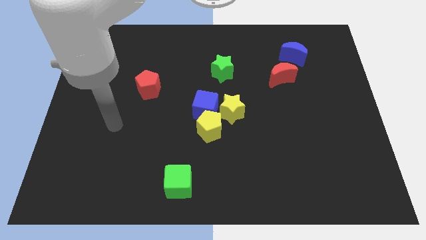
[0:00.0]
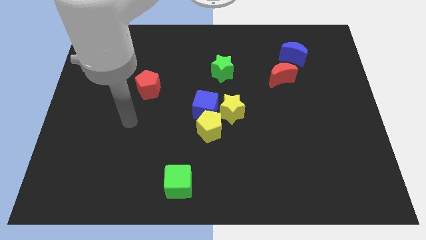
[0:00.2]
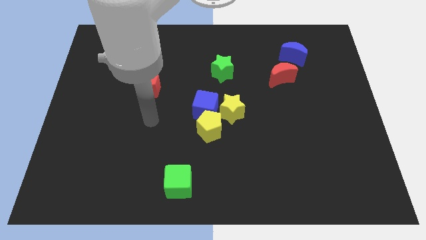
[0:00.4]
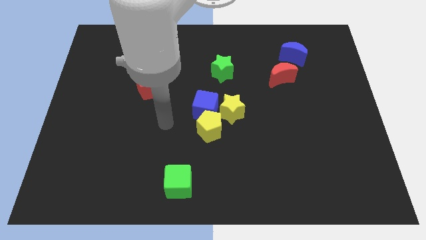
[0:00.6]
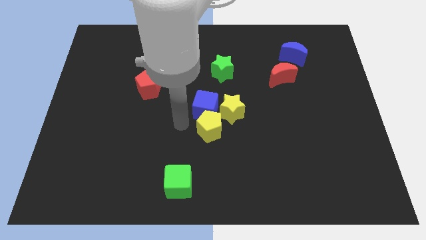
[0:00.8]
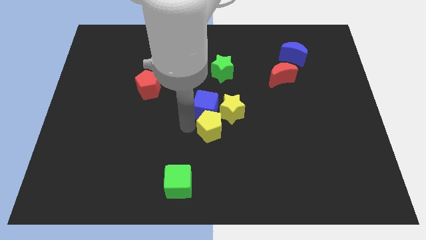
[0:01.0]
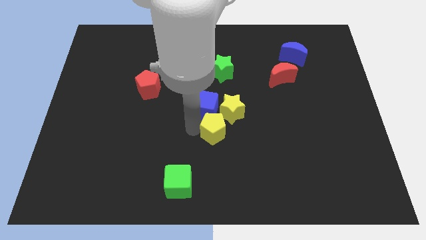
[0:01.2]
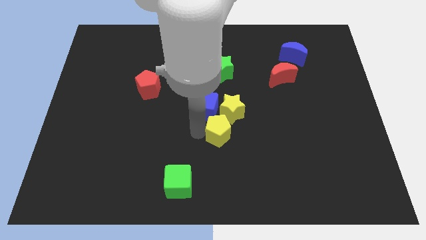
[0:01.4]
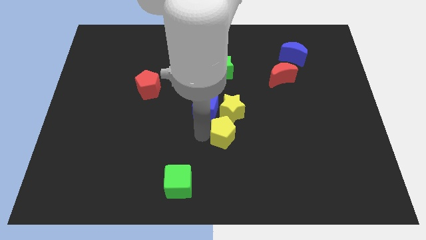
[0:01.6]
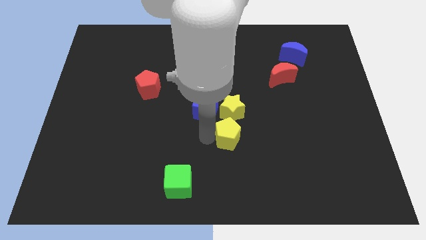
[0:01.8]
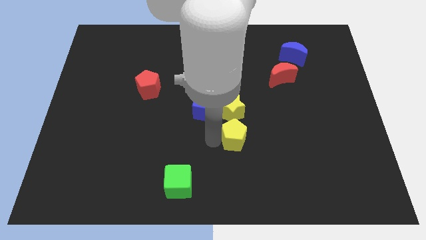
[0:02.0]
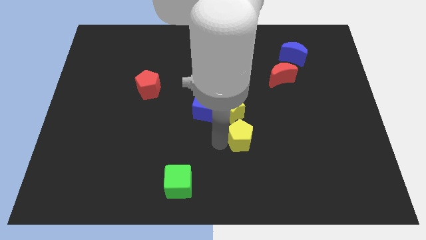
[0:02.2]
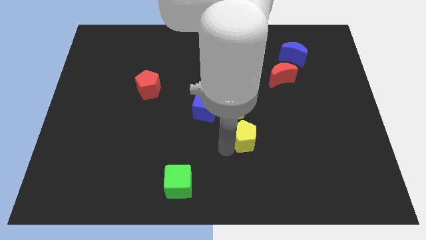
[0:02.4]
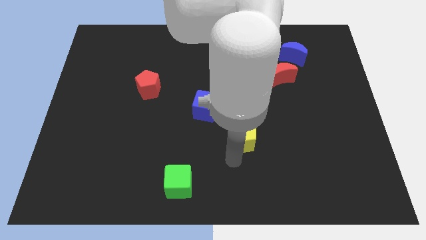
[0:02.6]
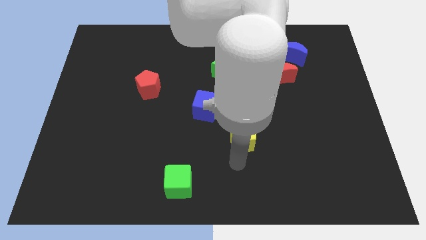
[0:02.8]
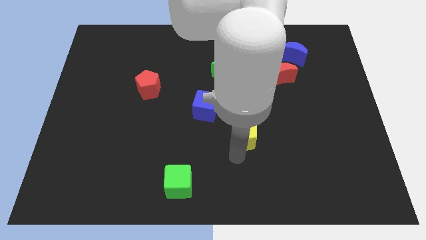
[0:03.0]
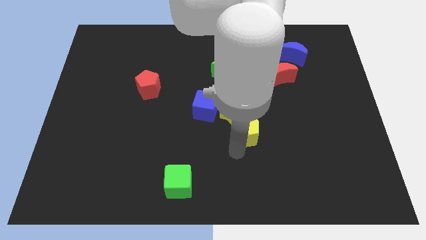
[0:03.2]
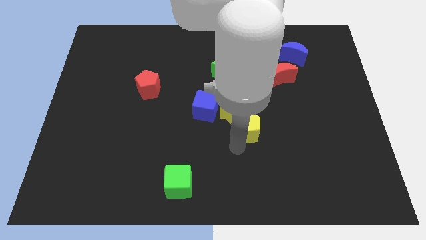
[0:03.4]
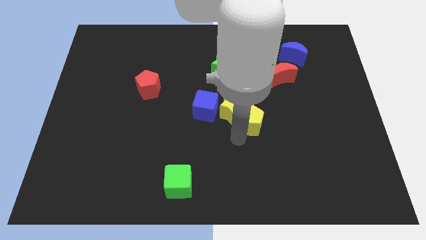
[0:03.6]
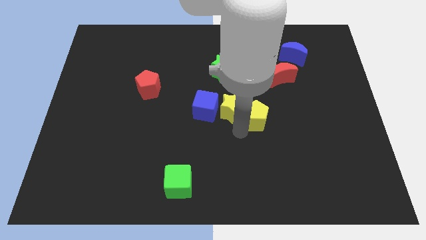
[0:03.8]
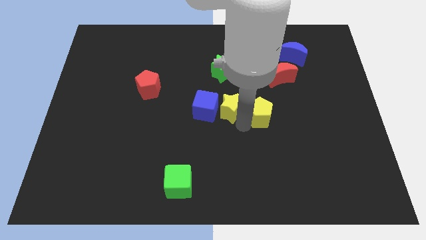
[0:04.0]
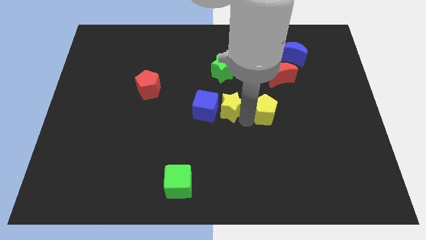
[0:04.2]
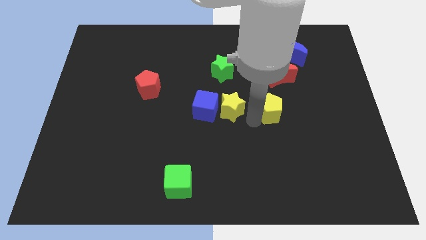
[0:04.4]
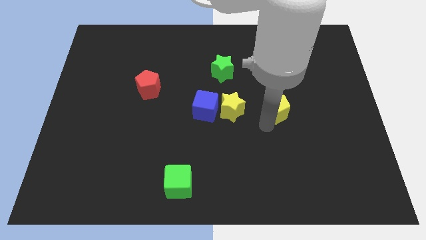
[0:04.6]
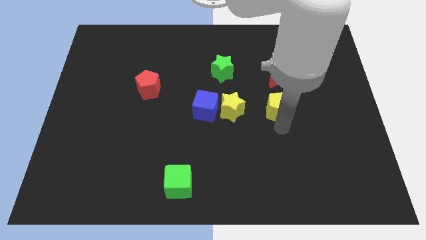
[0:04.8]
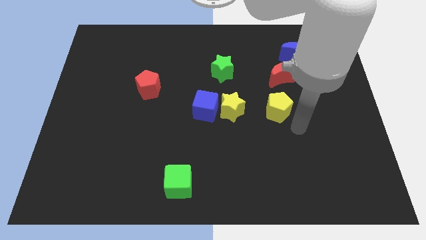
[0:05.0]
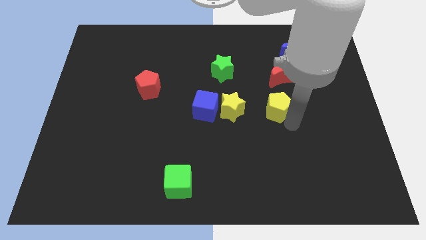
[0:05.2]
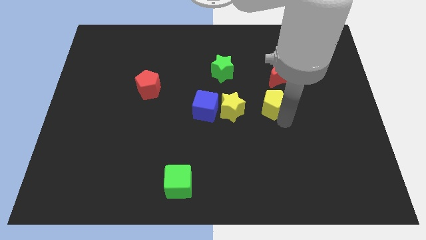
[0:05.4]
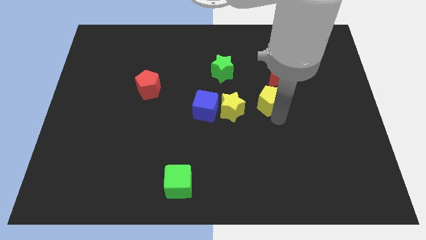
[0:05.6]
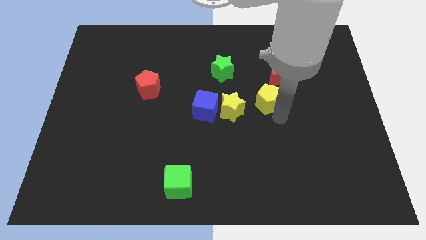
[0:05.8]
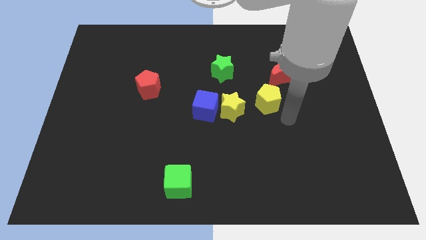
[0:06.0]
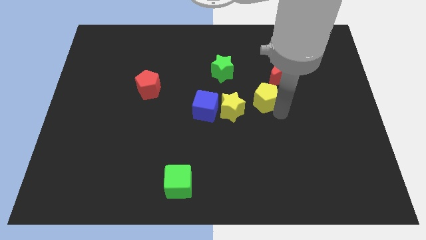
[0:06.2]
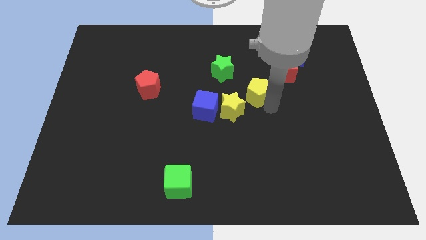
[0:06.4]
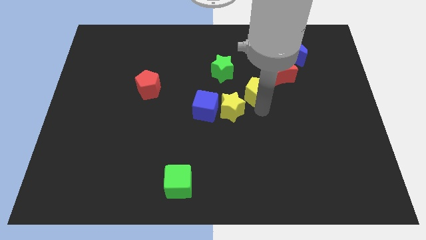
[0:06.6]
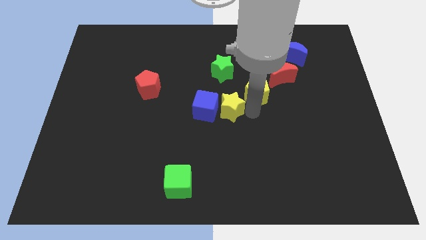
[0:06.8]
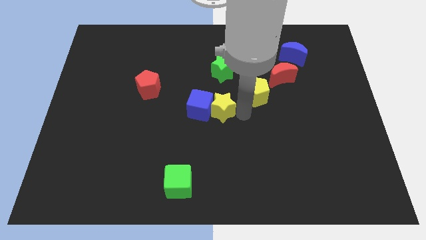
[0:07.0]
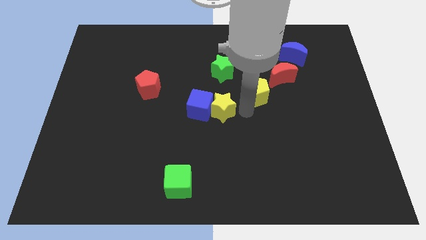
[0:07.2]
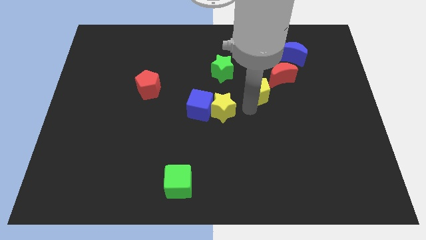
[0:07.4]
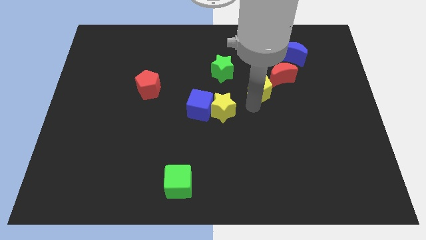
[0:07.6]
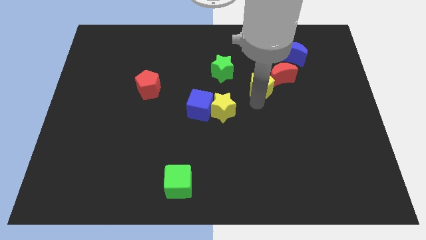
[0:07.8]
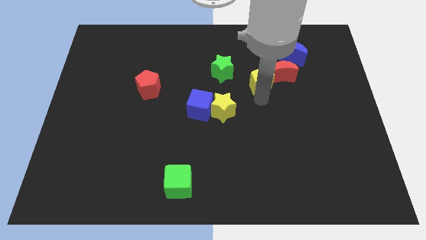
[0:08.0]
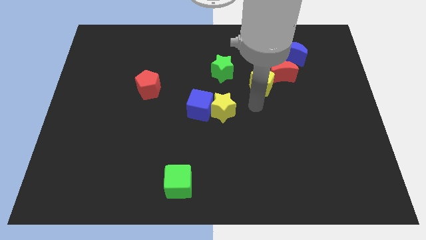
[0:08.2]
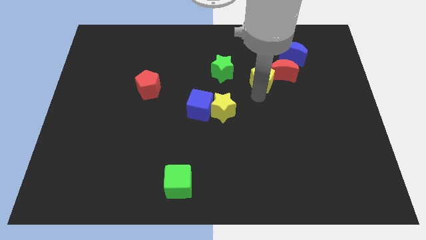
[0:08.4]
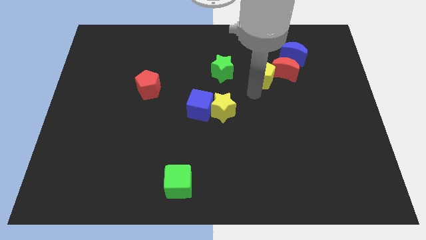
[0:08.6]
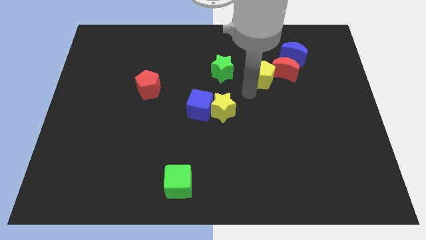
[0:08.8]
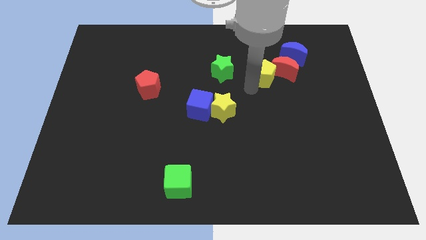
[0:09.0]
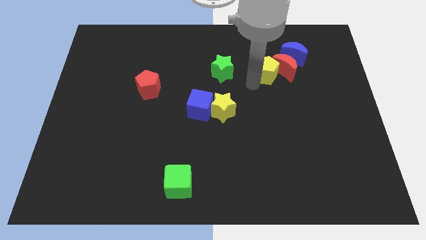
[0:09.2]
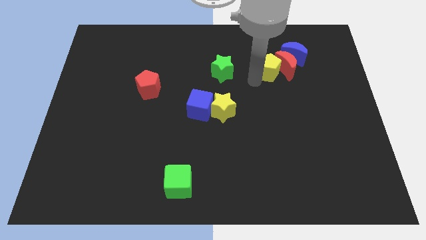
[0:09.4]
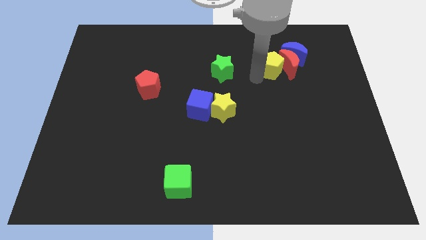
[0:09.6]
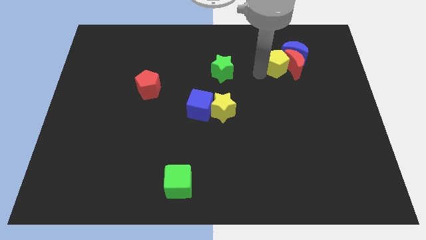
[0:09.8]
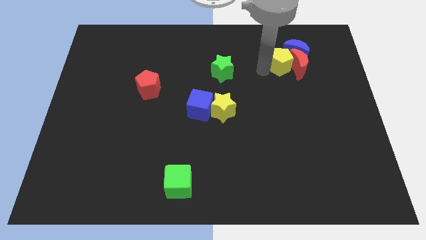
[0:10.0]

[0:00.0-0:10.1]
push the yellow pentagon close to the blue moon

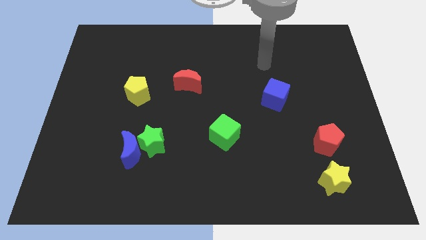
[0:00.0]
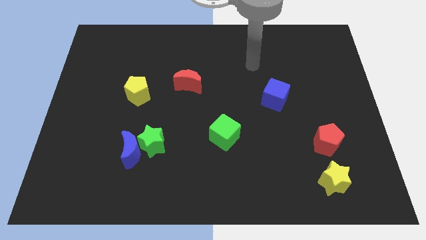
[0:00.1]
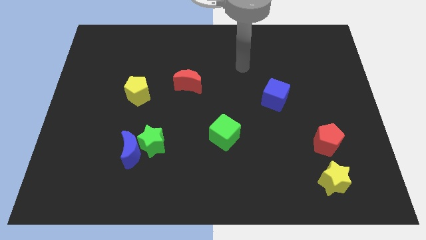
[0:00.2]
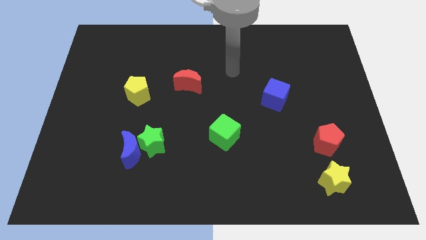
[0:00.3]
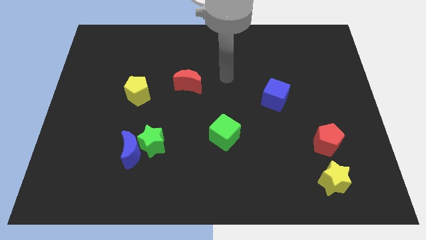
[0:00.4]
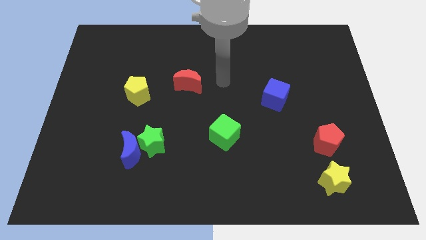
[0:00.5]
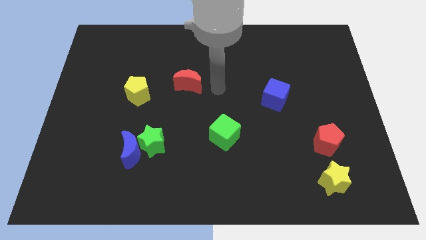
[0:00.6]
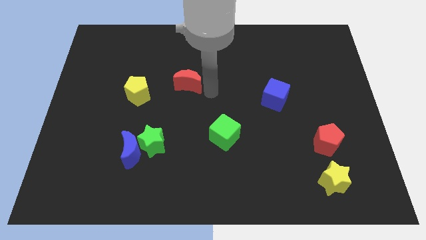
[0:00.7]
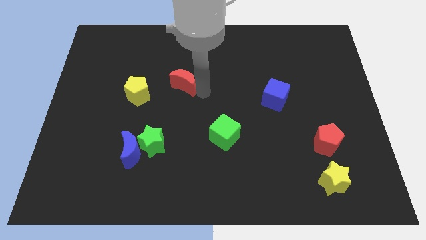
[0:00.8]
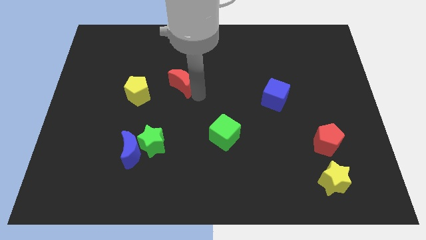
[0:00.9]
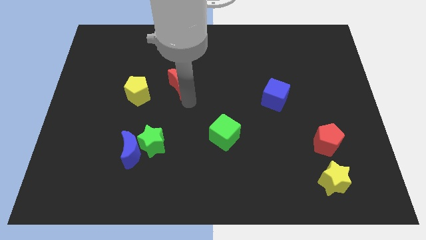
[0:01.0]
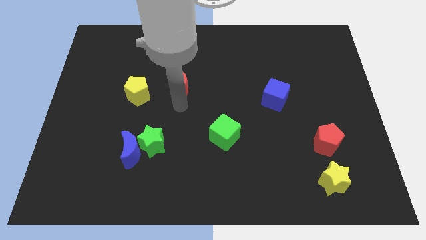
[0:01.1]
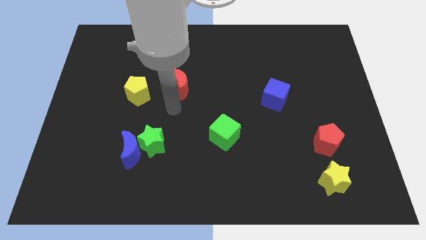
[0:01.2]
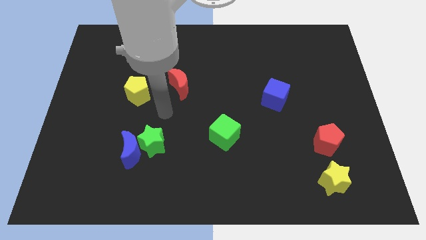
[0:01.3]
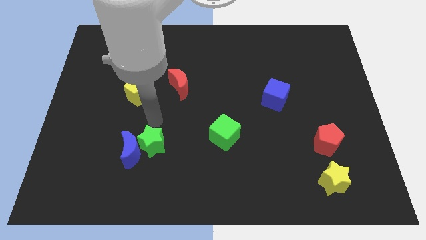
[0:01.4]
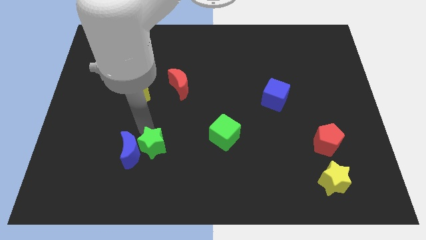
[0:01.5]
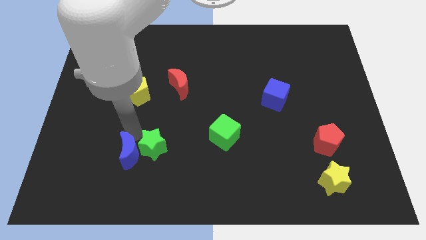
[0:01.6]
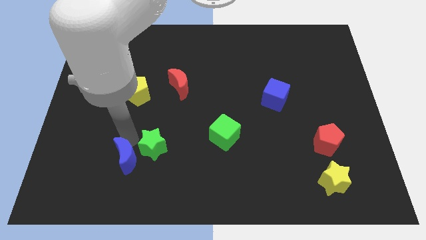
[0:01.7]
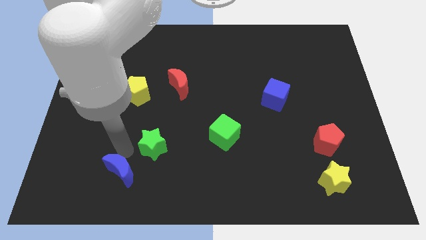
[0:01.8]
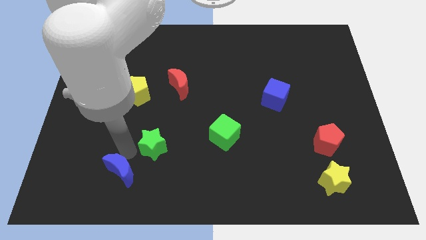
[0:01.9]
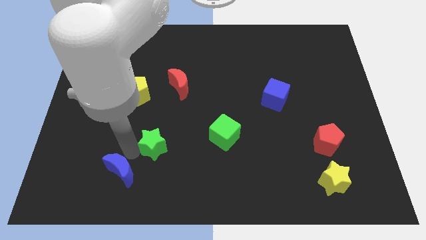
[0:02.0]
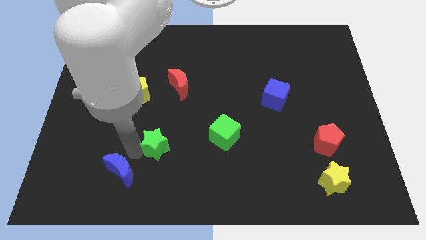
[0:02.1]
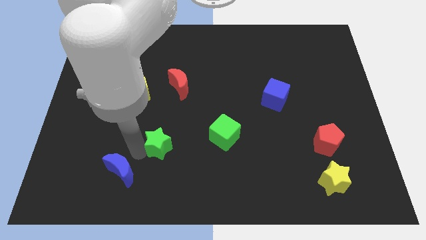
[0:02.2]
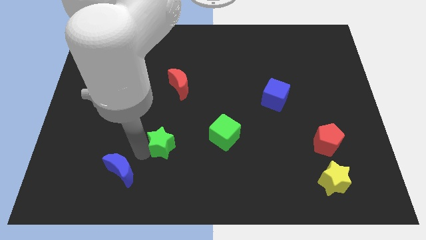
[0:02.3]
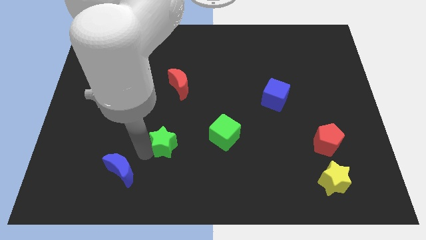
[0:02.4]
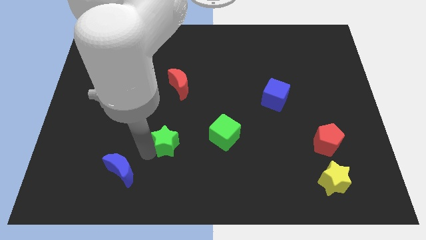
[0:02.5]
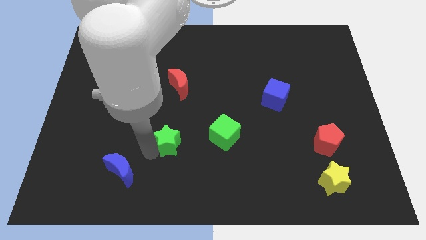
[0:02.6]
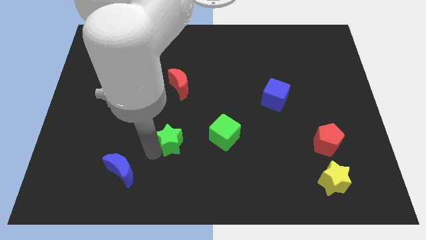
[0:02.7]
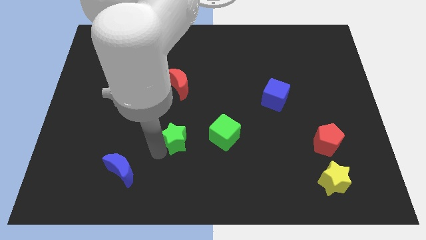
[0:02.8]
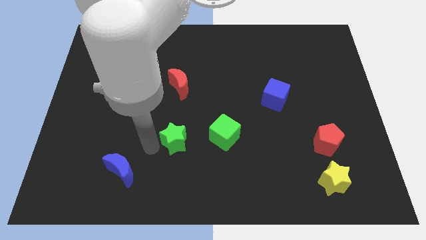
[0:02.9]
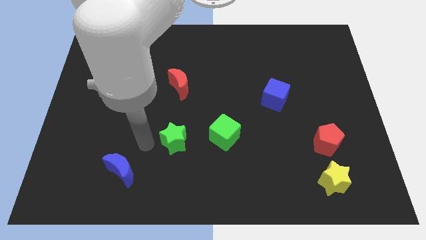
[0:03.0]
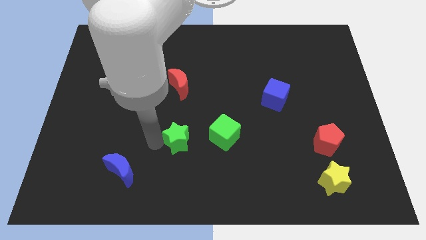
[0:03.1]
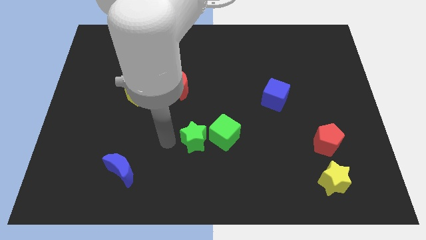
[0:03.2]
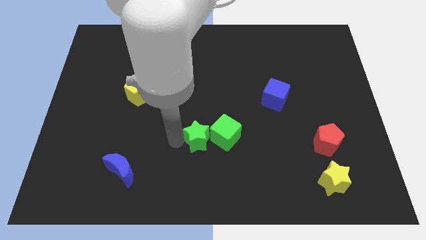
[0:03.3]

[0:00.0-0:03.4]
put the green star next to the green cube
